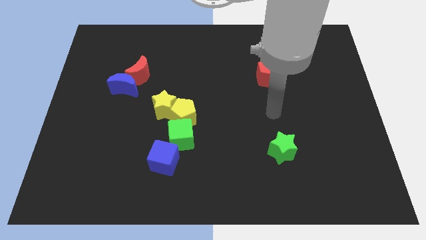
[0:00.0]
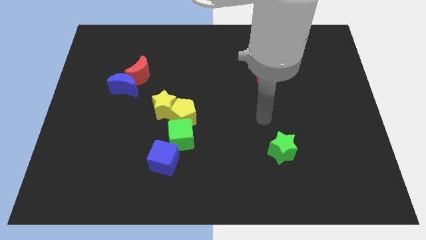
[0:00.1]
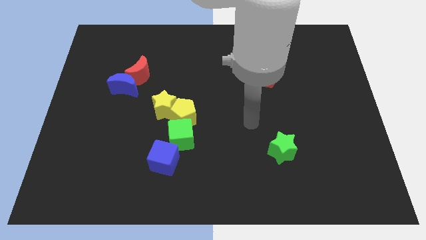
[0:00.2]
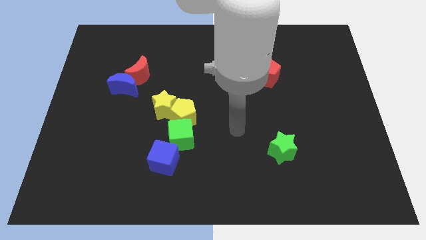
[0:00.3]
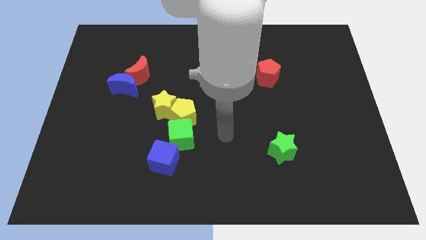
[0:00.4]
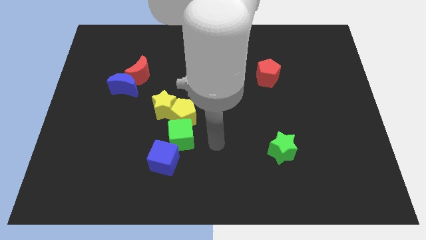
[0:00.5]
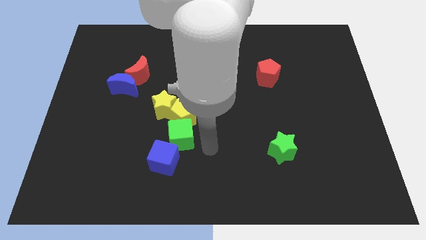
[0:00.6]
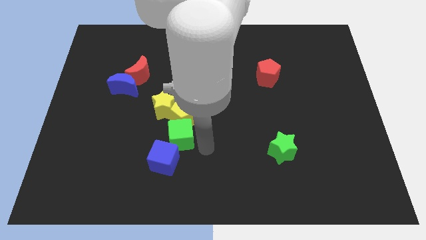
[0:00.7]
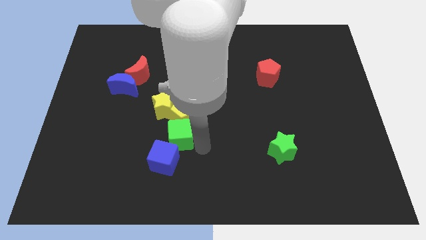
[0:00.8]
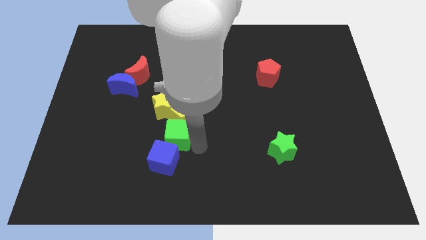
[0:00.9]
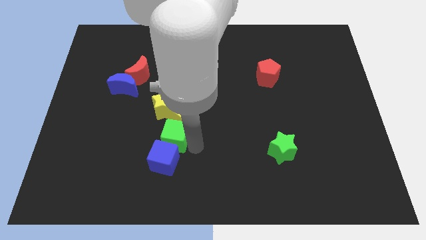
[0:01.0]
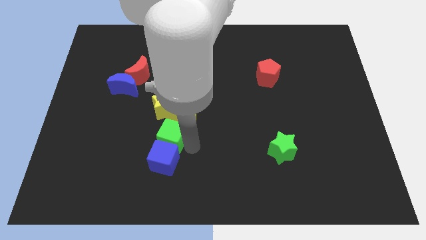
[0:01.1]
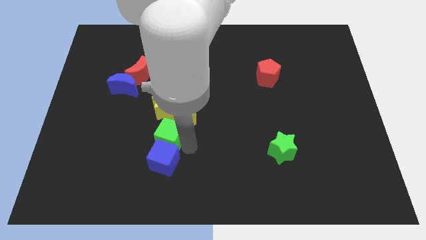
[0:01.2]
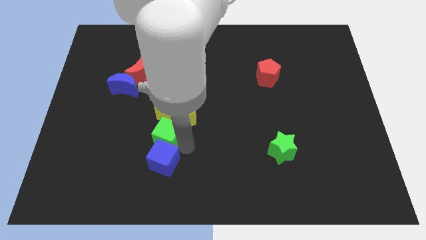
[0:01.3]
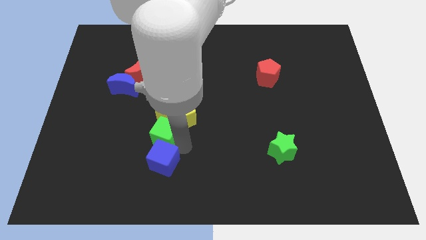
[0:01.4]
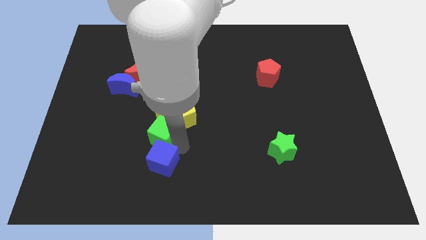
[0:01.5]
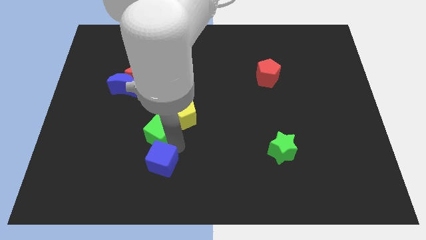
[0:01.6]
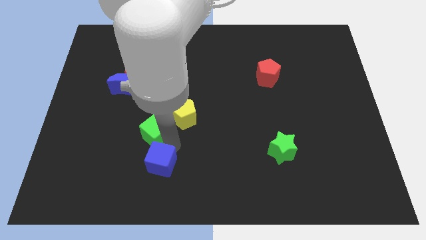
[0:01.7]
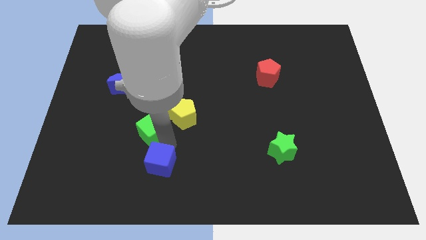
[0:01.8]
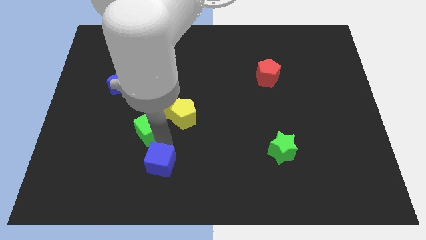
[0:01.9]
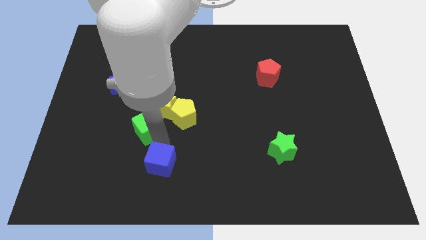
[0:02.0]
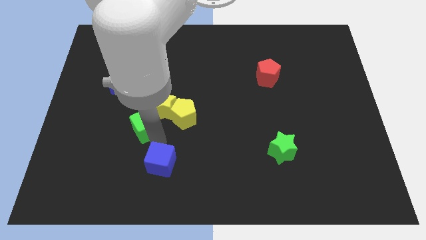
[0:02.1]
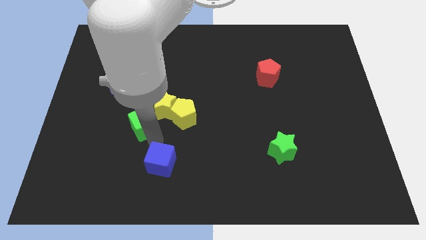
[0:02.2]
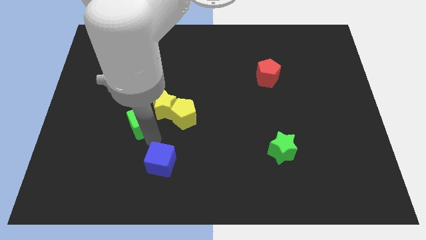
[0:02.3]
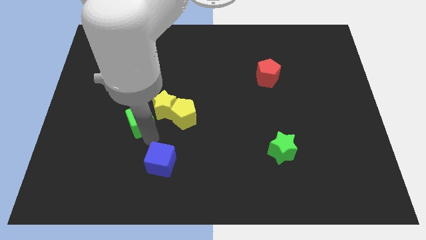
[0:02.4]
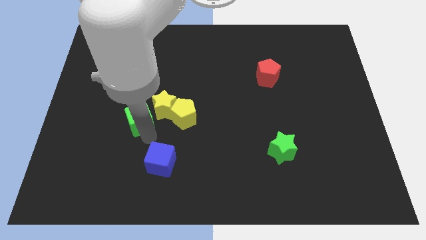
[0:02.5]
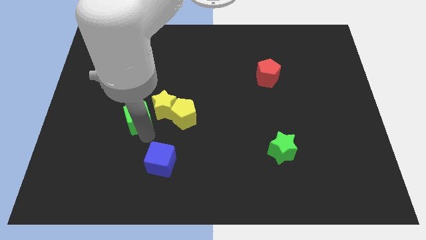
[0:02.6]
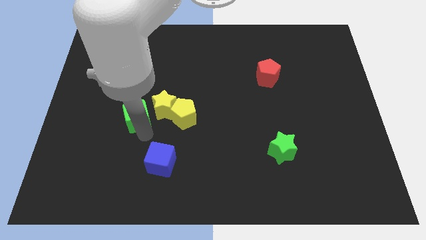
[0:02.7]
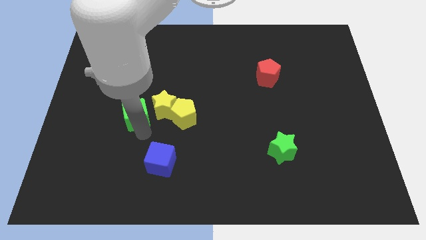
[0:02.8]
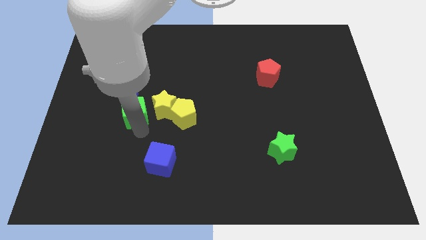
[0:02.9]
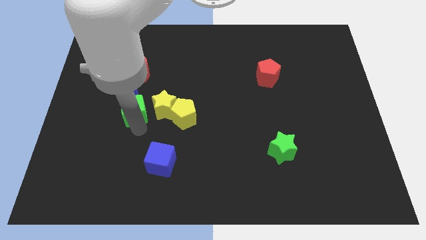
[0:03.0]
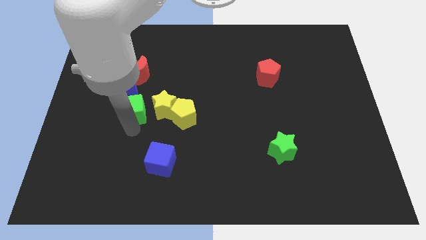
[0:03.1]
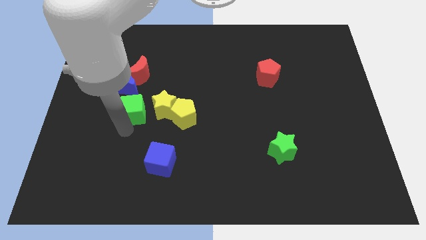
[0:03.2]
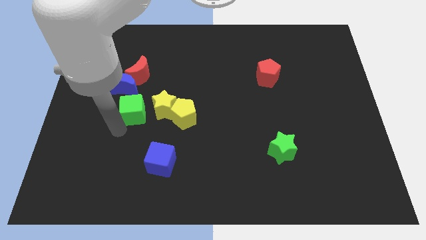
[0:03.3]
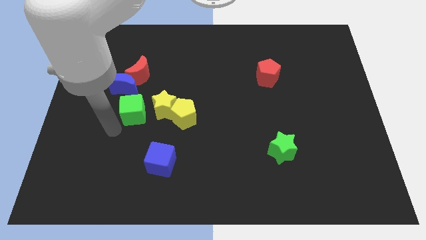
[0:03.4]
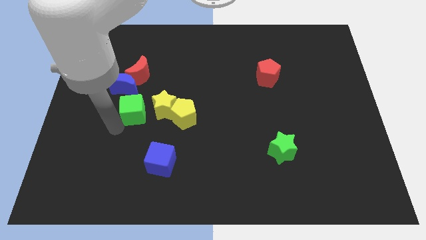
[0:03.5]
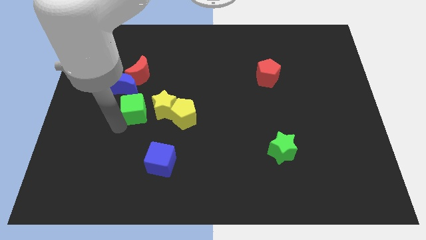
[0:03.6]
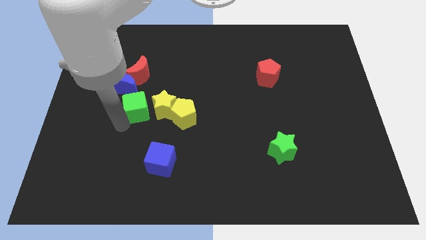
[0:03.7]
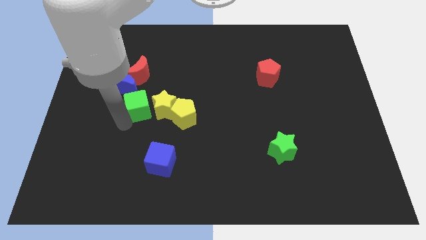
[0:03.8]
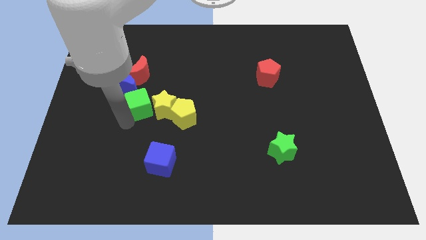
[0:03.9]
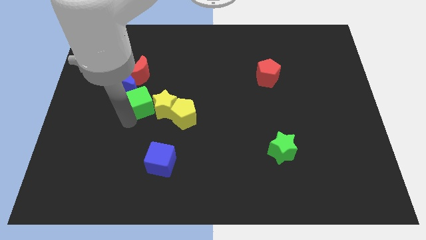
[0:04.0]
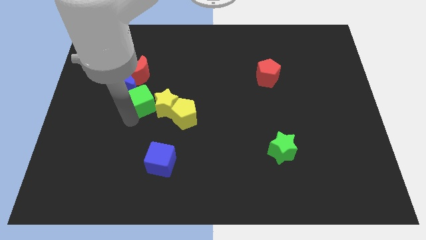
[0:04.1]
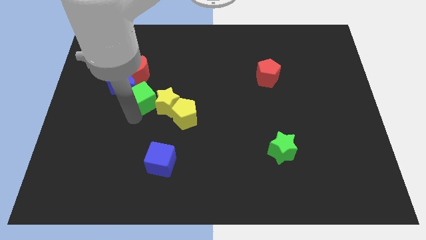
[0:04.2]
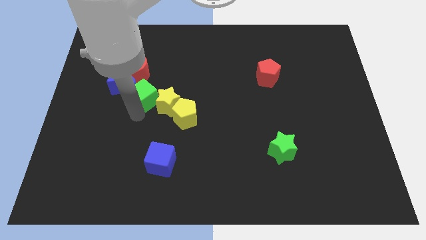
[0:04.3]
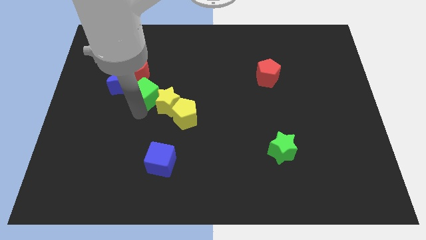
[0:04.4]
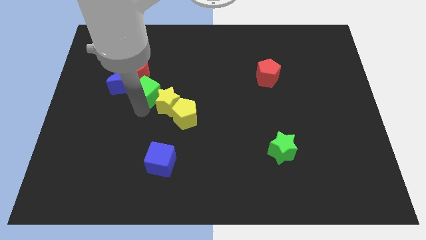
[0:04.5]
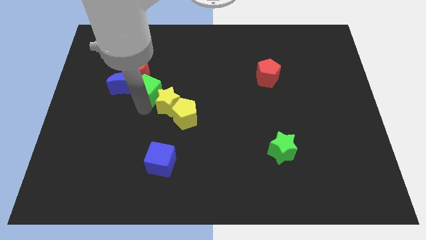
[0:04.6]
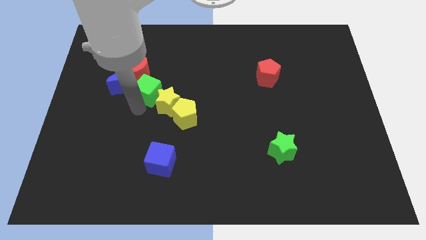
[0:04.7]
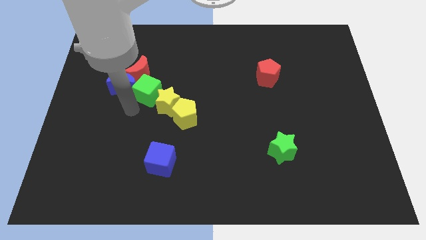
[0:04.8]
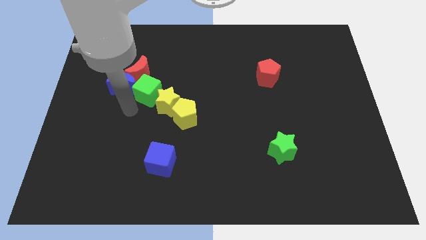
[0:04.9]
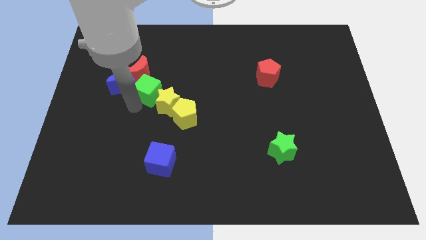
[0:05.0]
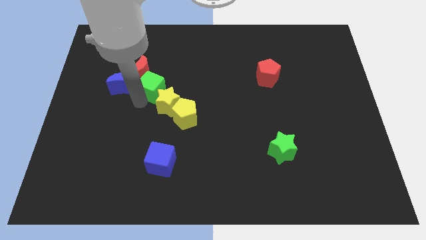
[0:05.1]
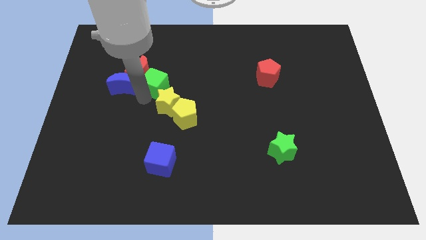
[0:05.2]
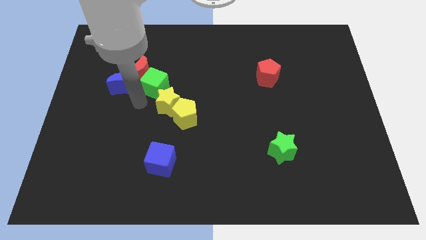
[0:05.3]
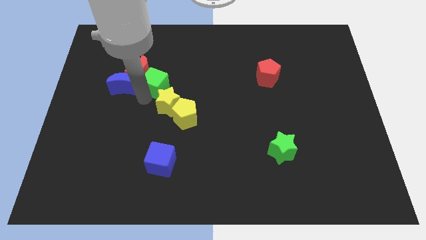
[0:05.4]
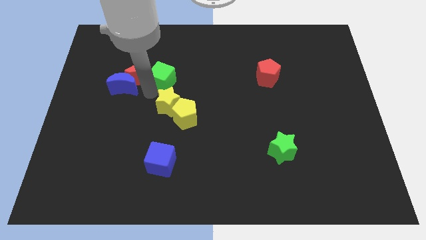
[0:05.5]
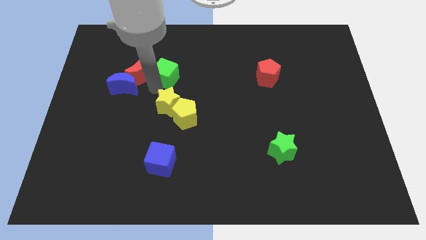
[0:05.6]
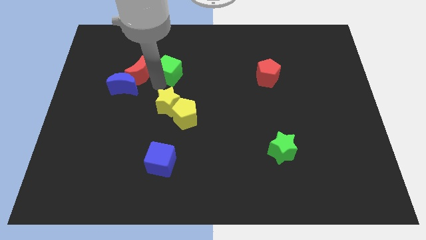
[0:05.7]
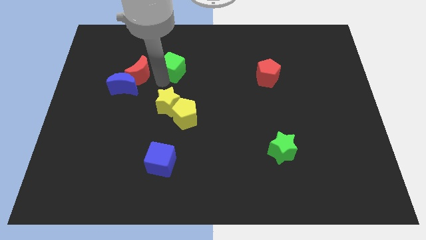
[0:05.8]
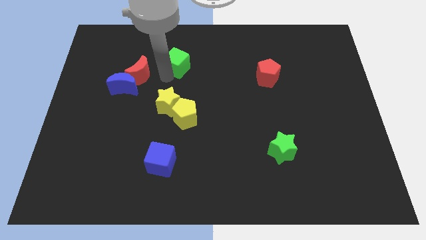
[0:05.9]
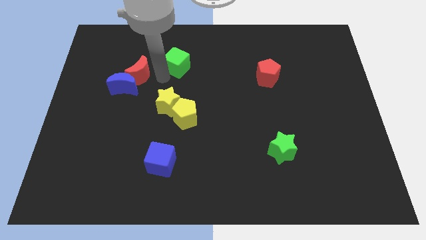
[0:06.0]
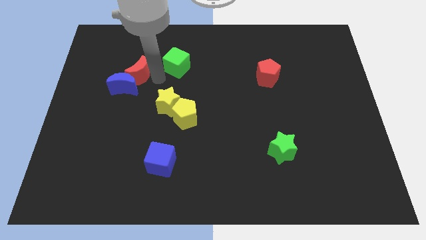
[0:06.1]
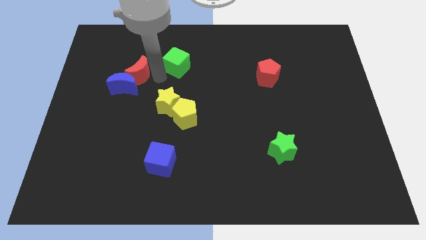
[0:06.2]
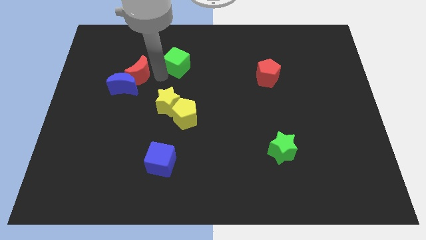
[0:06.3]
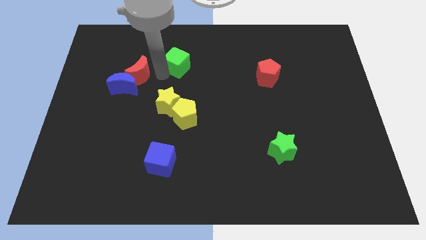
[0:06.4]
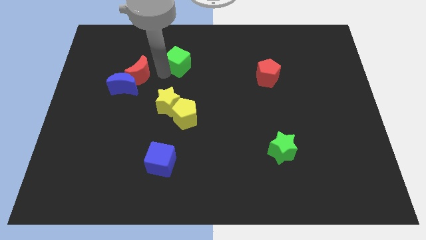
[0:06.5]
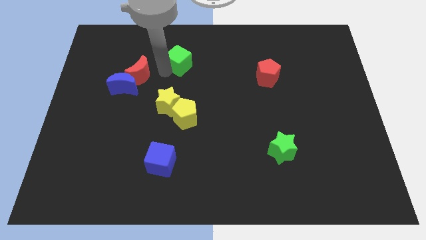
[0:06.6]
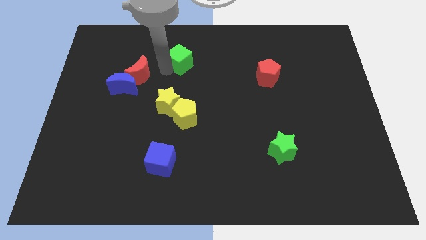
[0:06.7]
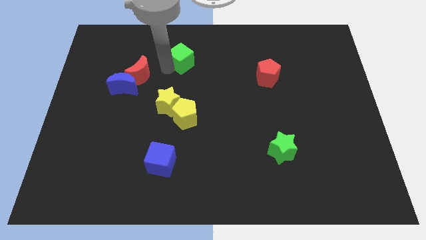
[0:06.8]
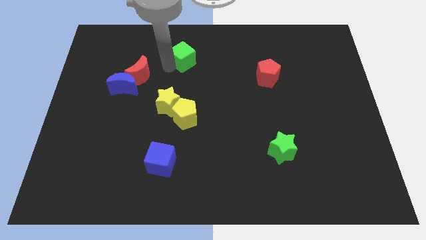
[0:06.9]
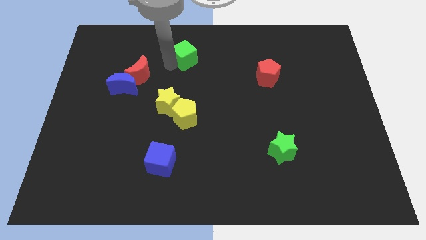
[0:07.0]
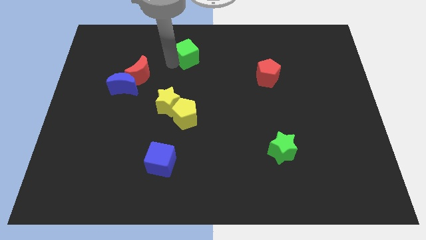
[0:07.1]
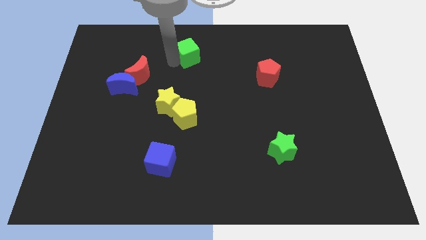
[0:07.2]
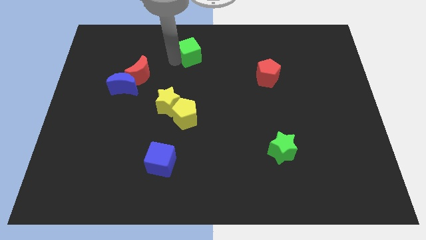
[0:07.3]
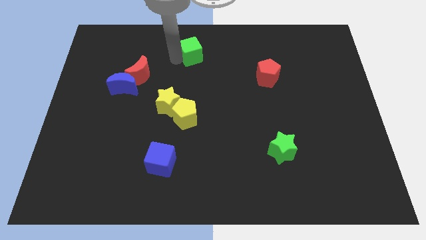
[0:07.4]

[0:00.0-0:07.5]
move the green cube to the top side
